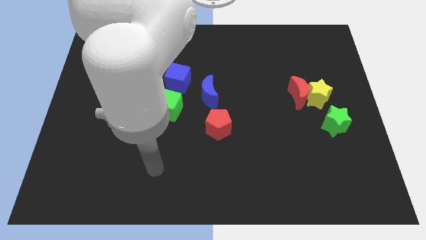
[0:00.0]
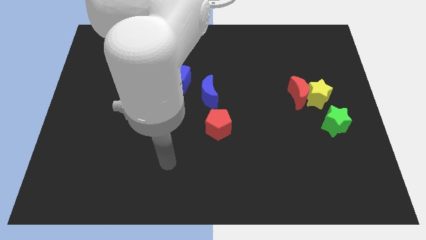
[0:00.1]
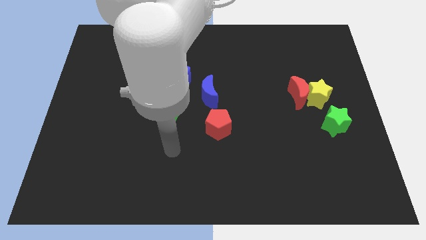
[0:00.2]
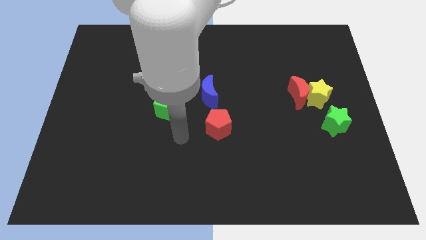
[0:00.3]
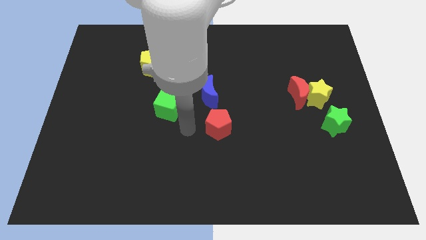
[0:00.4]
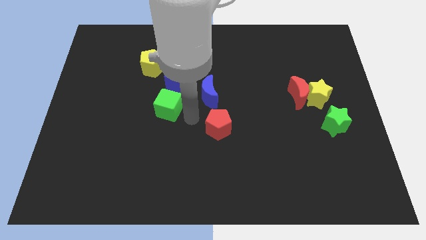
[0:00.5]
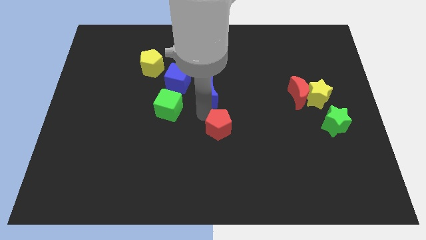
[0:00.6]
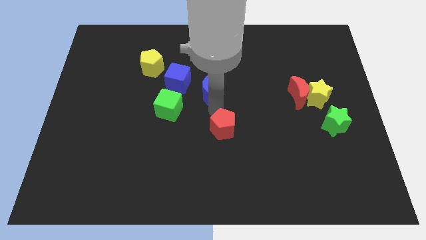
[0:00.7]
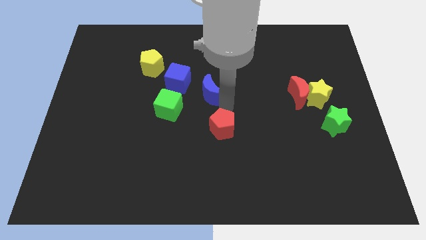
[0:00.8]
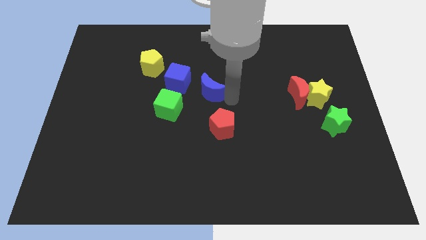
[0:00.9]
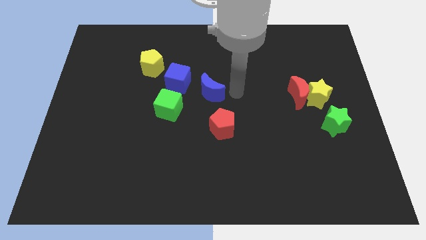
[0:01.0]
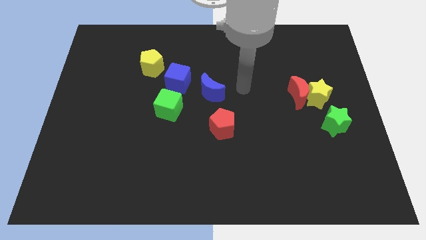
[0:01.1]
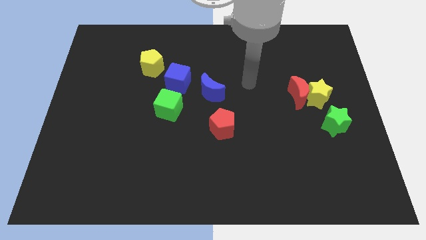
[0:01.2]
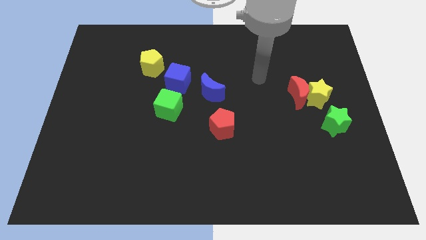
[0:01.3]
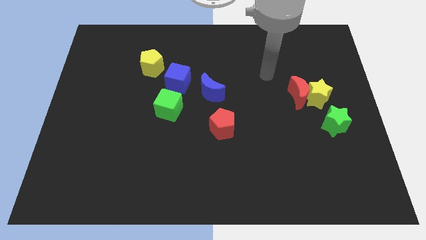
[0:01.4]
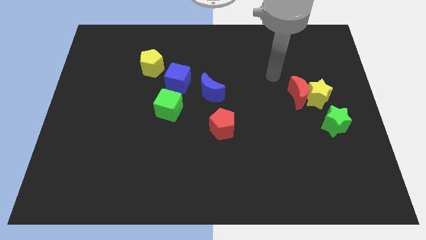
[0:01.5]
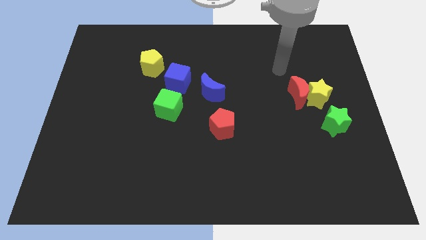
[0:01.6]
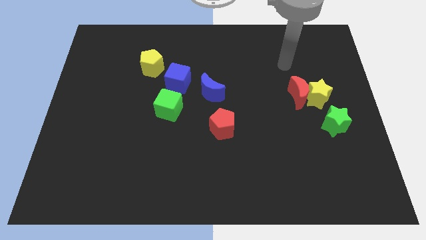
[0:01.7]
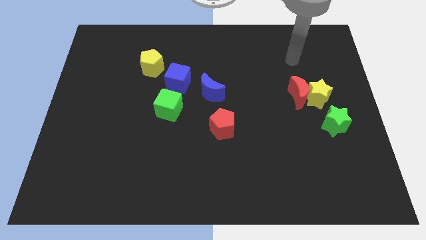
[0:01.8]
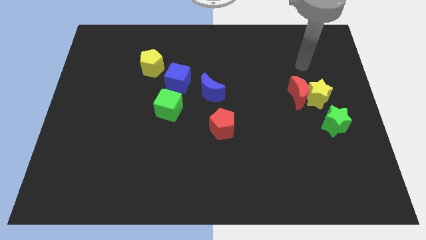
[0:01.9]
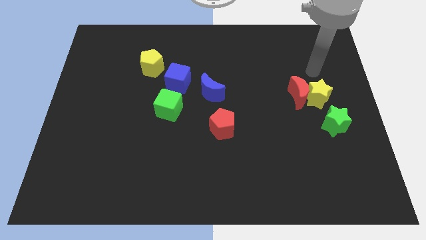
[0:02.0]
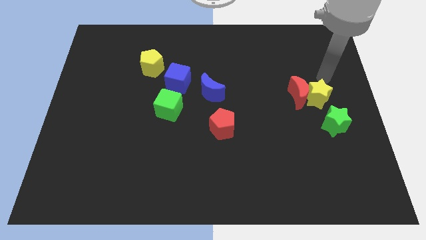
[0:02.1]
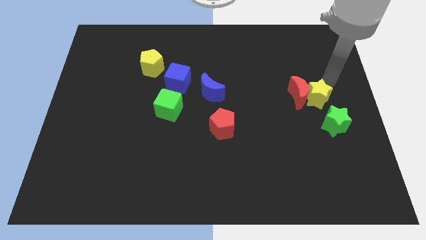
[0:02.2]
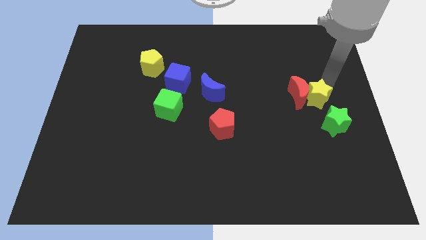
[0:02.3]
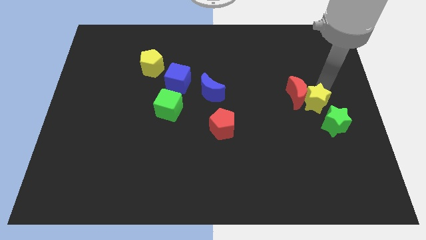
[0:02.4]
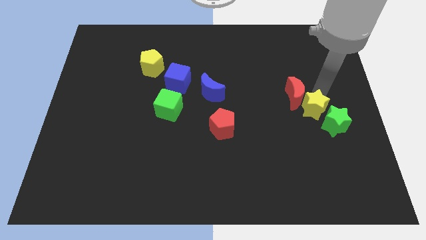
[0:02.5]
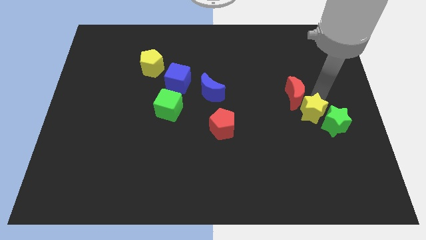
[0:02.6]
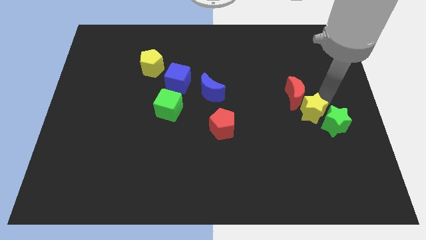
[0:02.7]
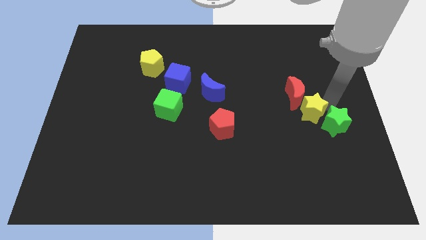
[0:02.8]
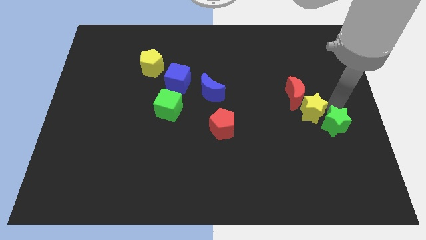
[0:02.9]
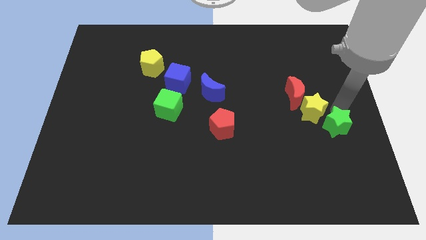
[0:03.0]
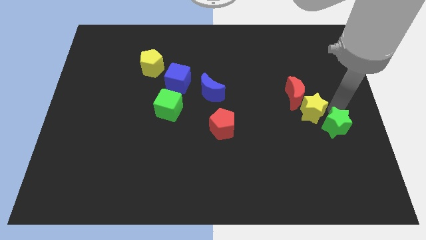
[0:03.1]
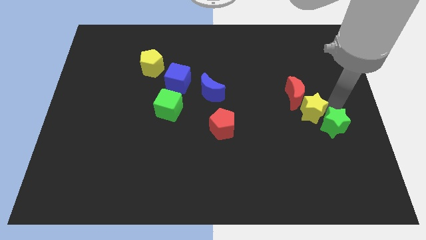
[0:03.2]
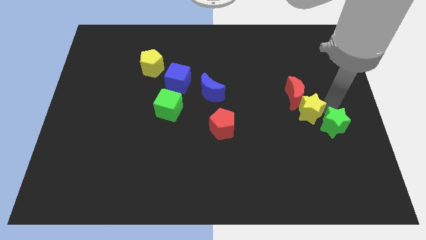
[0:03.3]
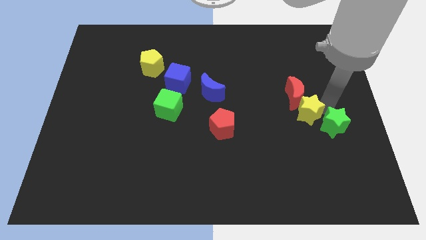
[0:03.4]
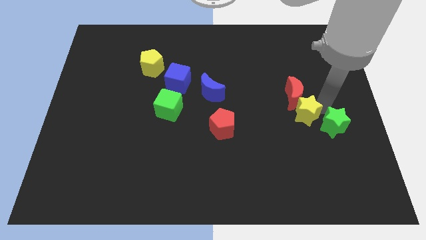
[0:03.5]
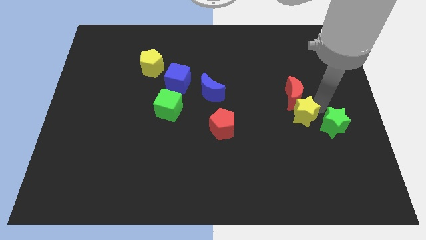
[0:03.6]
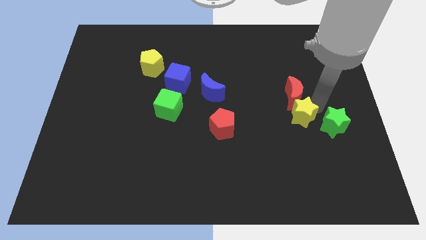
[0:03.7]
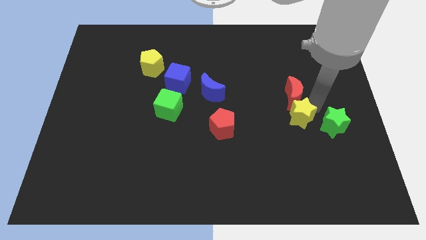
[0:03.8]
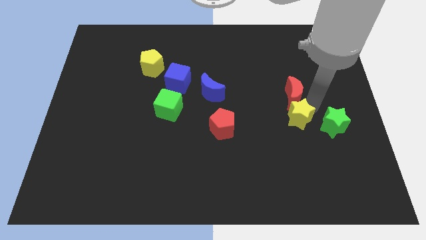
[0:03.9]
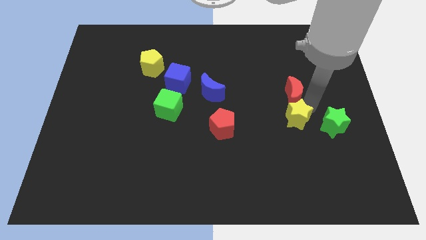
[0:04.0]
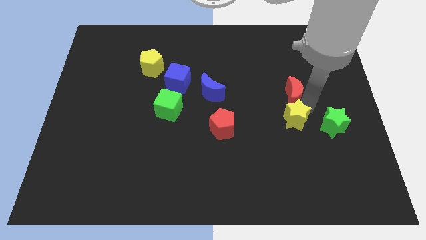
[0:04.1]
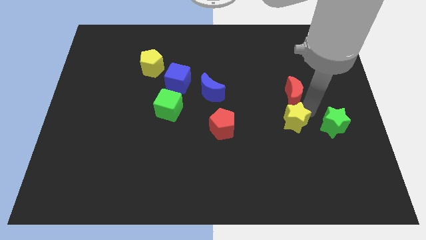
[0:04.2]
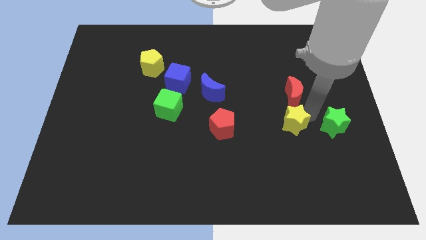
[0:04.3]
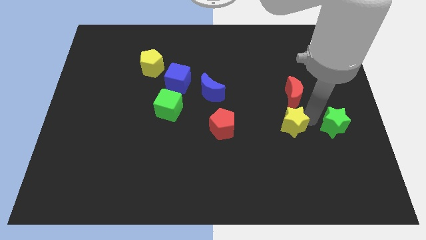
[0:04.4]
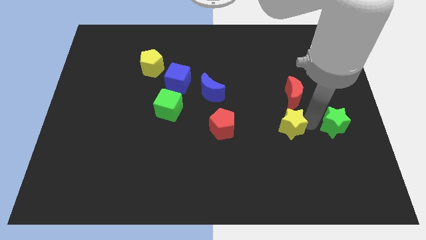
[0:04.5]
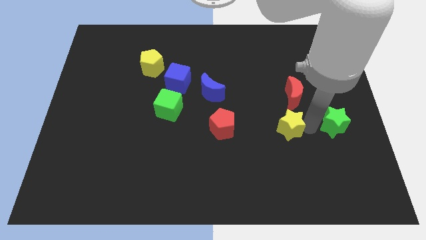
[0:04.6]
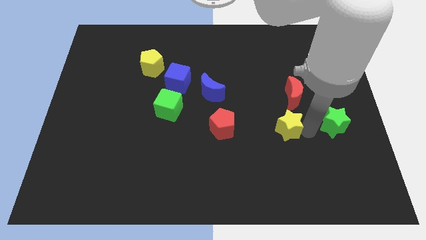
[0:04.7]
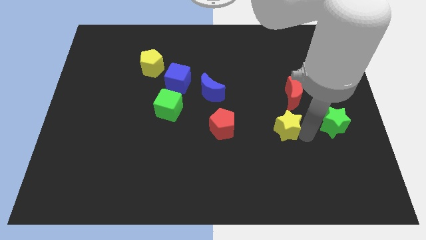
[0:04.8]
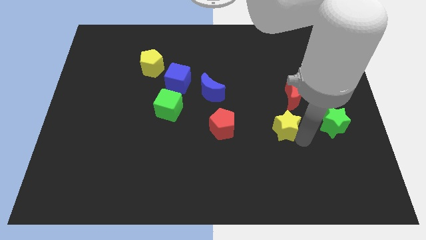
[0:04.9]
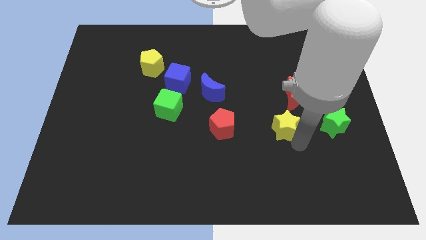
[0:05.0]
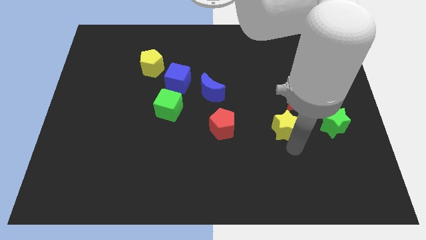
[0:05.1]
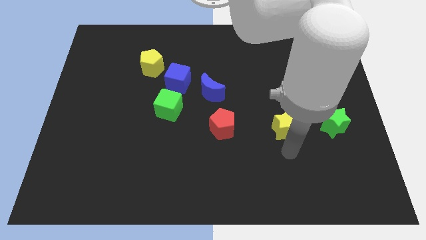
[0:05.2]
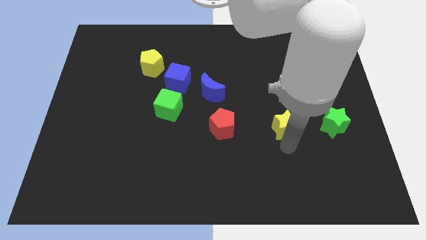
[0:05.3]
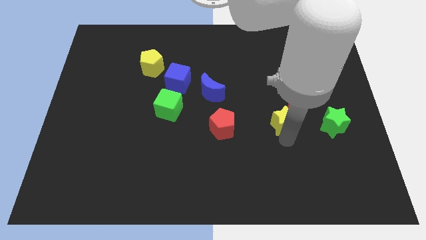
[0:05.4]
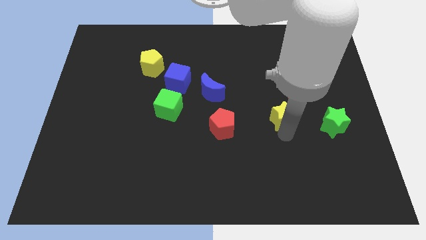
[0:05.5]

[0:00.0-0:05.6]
slide the yellow star left a bit

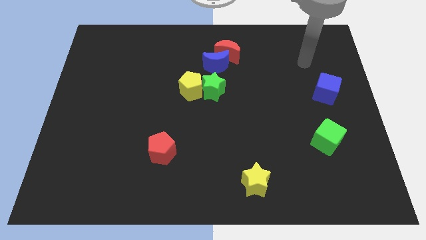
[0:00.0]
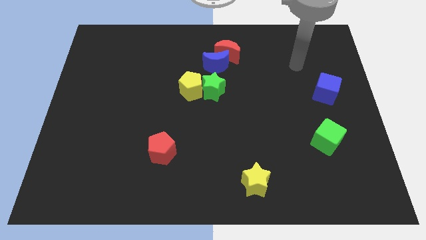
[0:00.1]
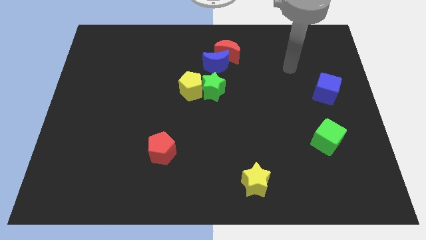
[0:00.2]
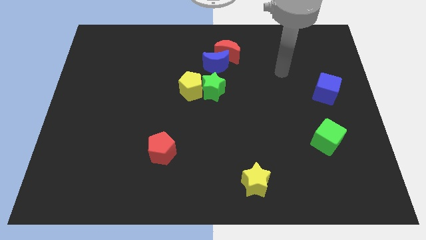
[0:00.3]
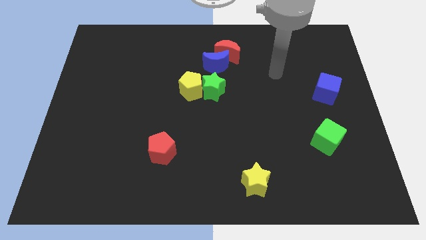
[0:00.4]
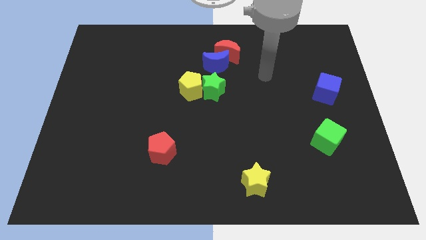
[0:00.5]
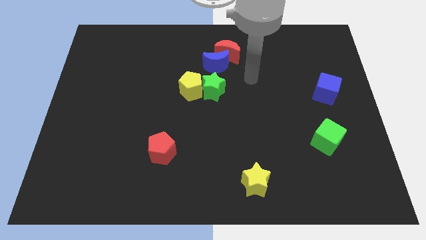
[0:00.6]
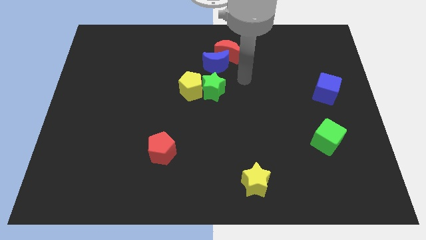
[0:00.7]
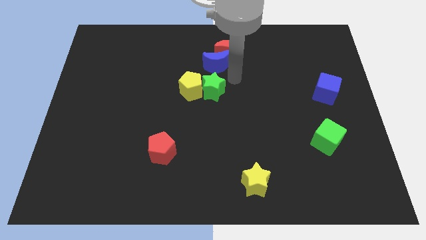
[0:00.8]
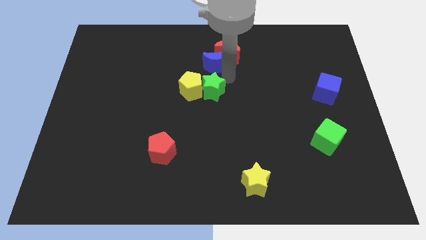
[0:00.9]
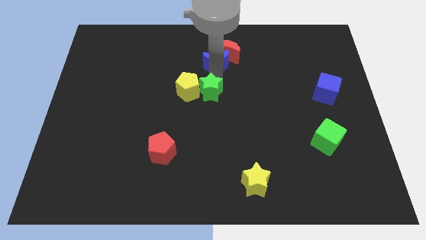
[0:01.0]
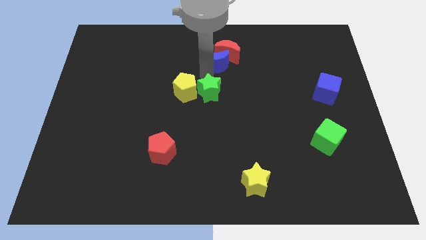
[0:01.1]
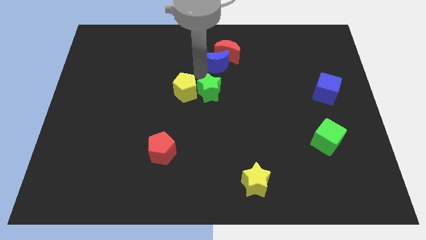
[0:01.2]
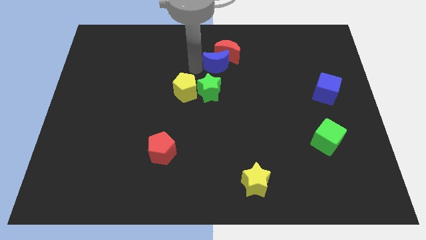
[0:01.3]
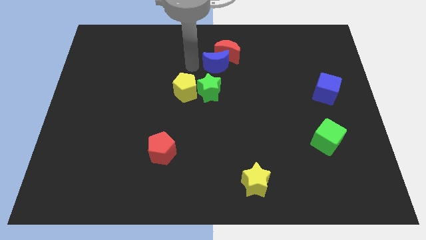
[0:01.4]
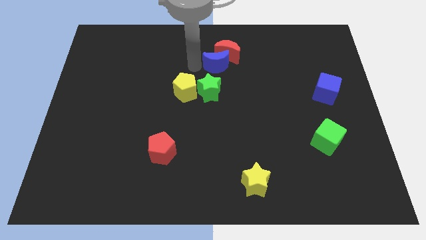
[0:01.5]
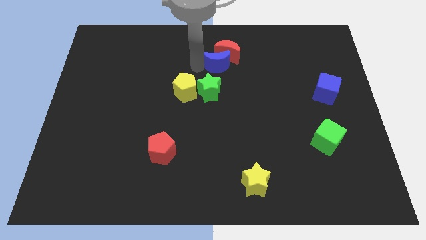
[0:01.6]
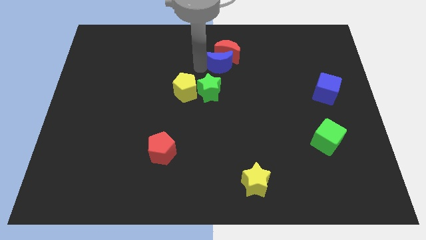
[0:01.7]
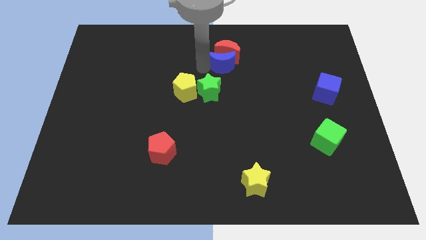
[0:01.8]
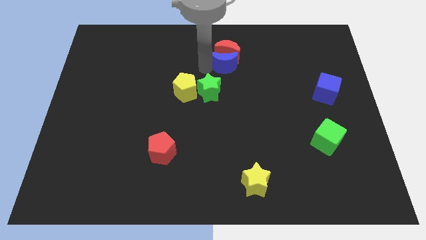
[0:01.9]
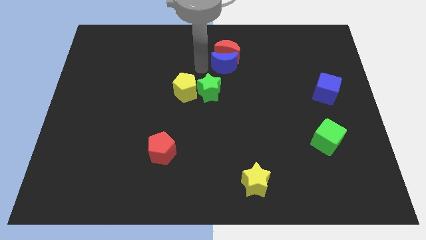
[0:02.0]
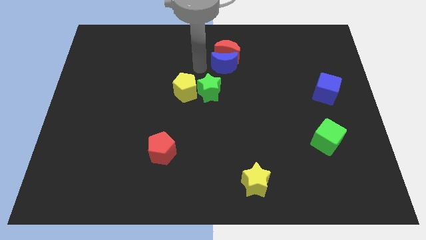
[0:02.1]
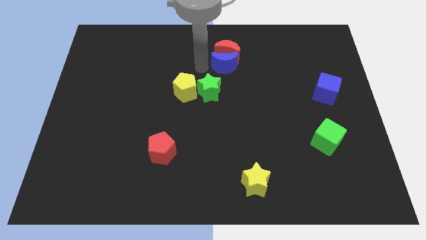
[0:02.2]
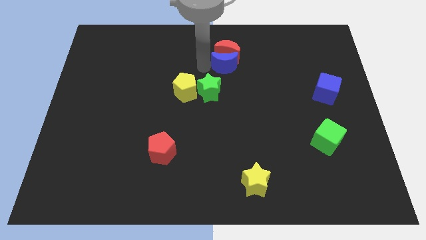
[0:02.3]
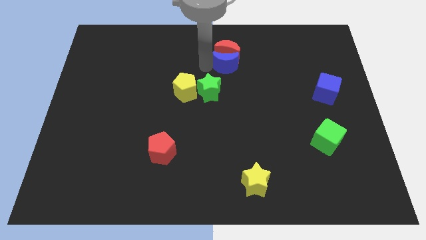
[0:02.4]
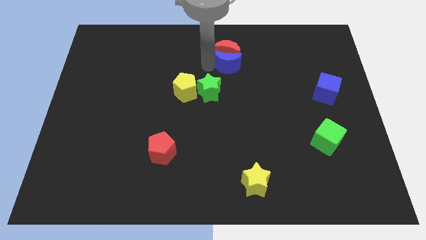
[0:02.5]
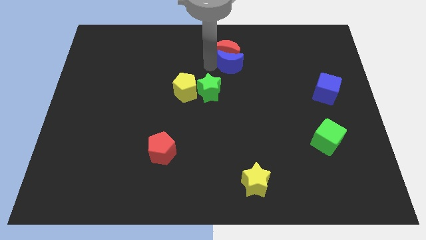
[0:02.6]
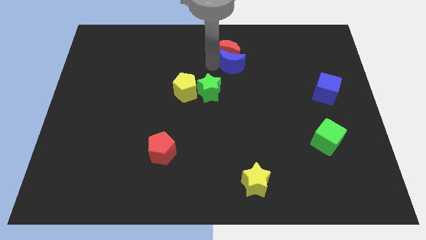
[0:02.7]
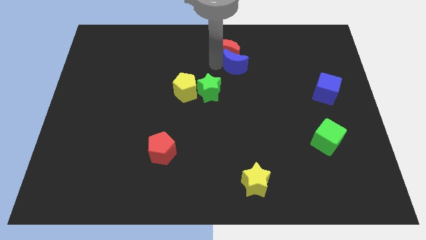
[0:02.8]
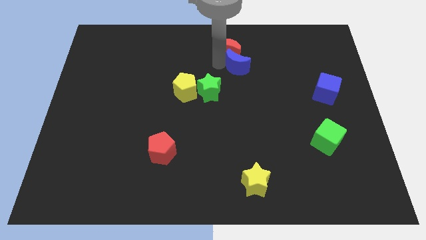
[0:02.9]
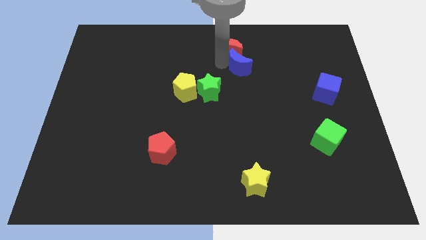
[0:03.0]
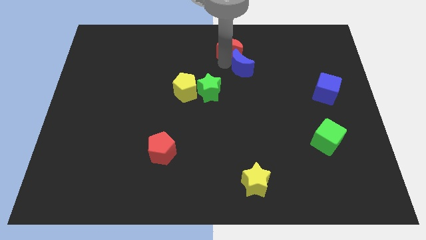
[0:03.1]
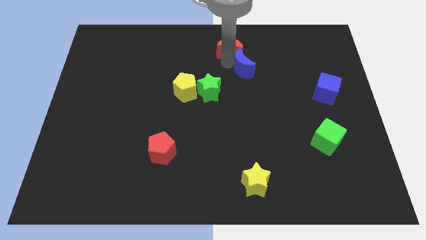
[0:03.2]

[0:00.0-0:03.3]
slide the blue moon a bit to the right
